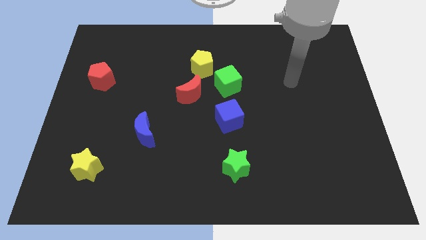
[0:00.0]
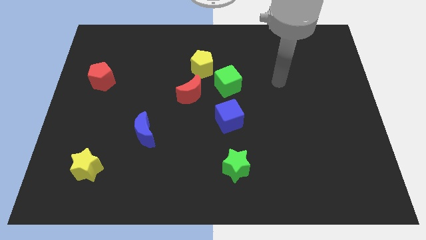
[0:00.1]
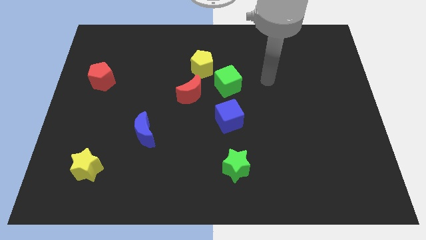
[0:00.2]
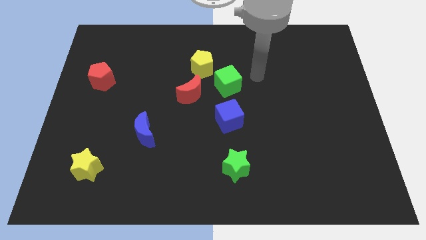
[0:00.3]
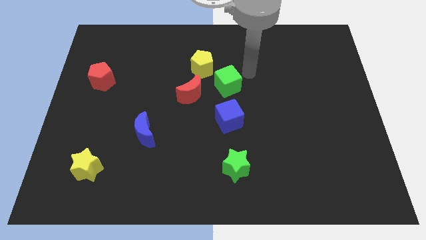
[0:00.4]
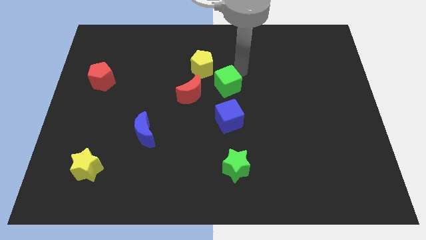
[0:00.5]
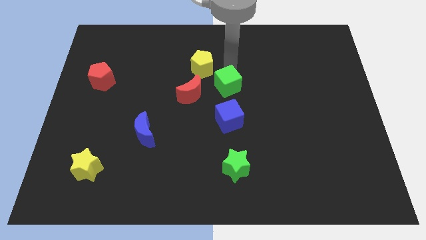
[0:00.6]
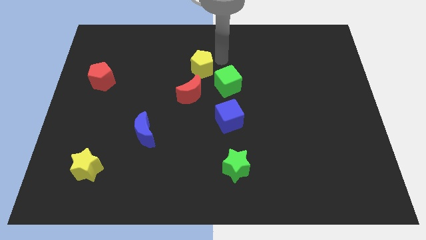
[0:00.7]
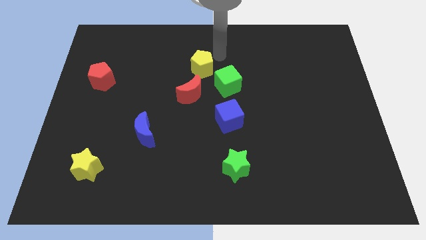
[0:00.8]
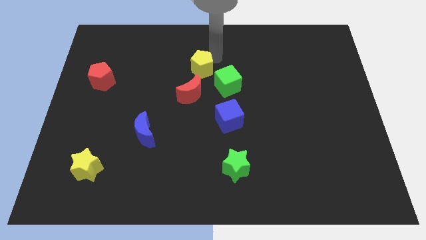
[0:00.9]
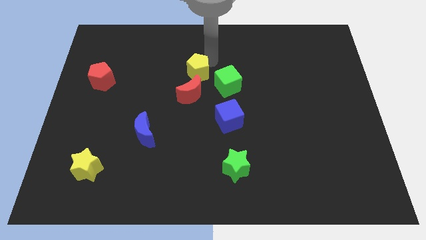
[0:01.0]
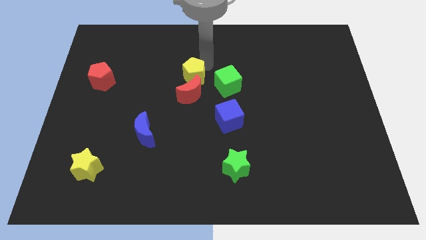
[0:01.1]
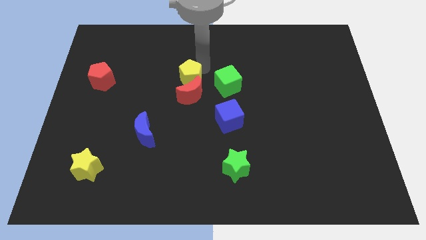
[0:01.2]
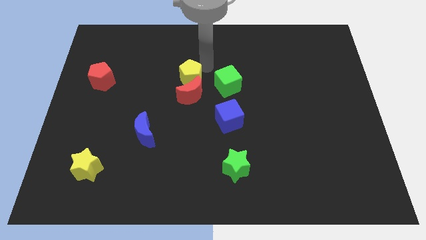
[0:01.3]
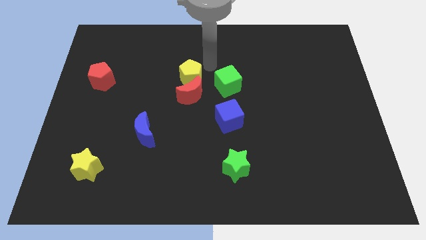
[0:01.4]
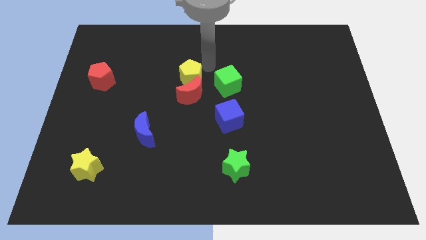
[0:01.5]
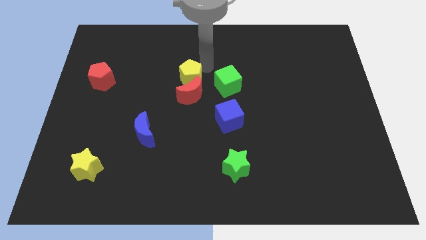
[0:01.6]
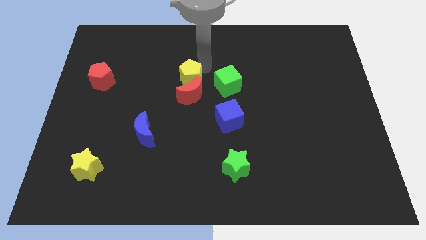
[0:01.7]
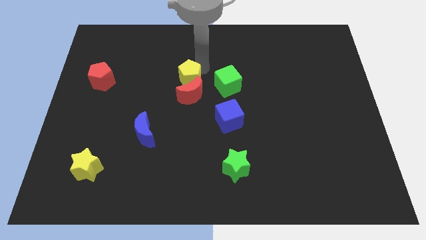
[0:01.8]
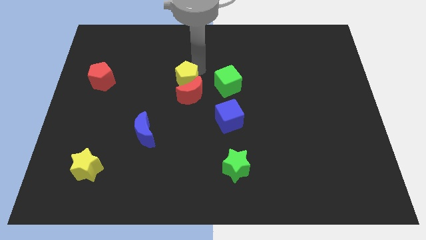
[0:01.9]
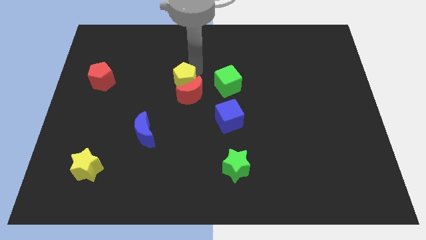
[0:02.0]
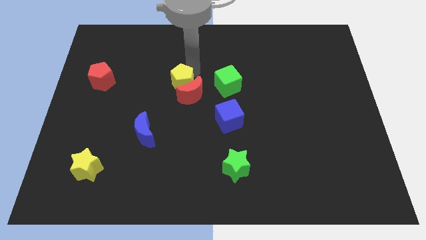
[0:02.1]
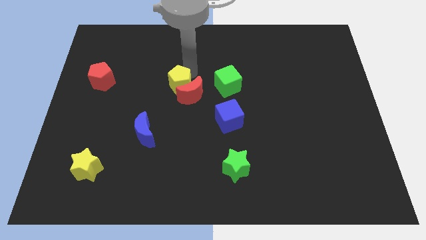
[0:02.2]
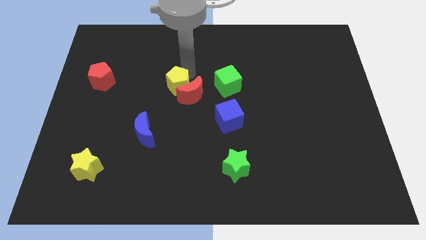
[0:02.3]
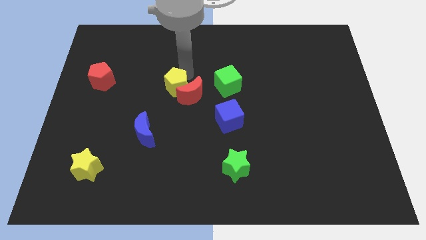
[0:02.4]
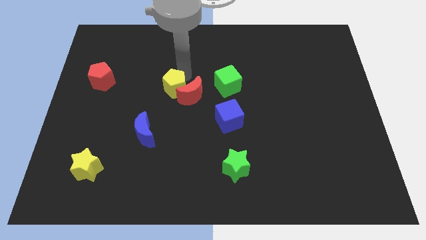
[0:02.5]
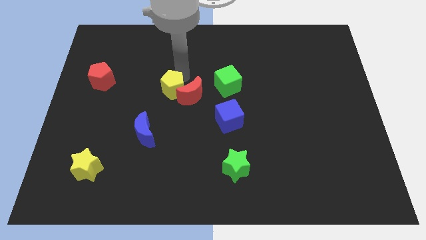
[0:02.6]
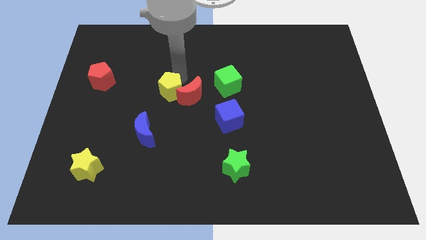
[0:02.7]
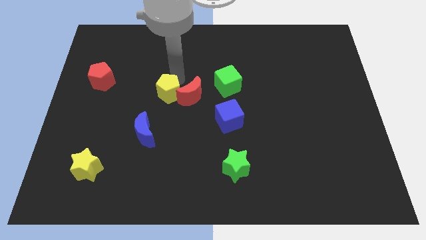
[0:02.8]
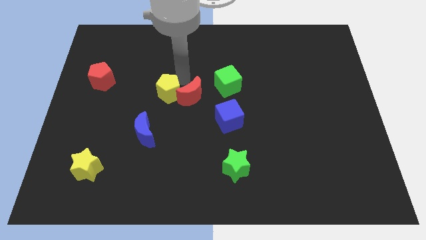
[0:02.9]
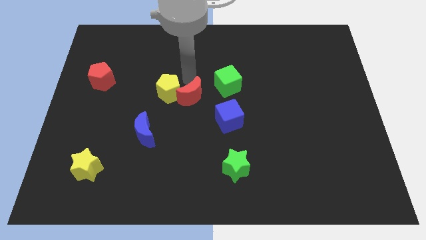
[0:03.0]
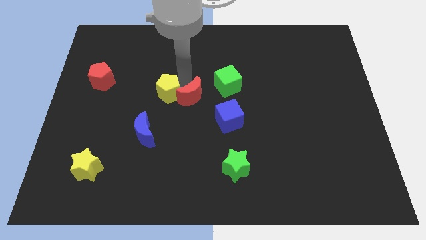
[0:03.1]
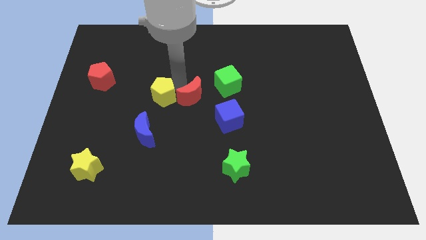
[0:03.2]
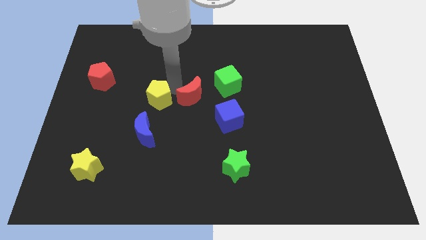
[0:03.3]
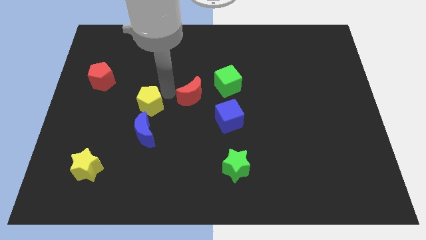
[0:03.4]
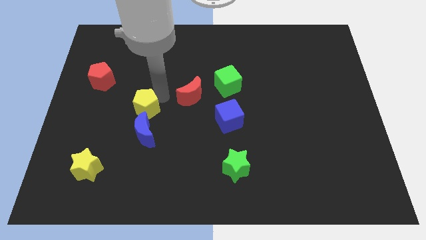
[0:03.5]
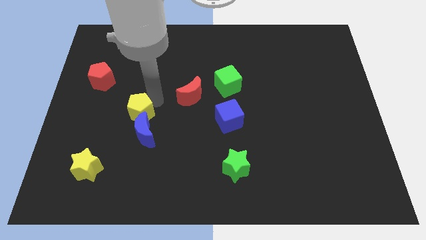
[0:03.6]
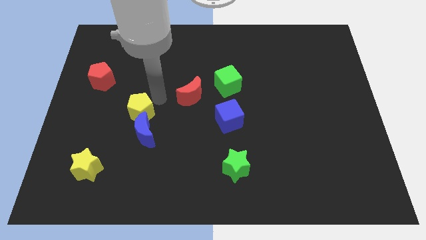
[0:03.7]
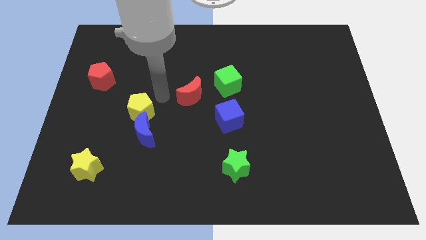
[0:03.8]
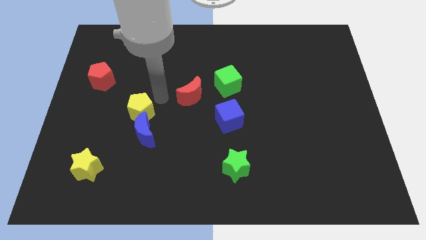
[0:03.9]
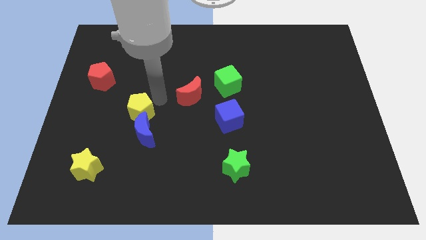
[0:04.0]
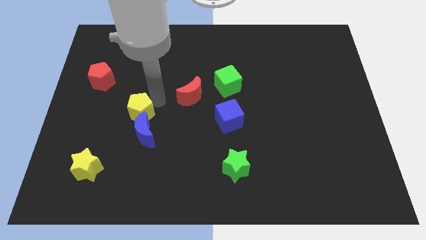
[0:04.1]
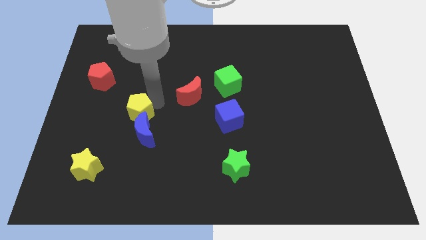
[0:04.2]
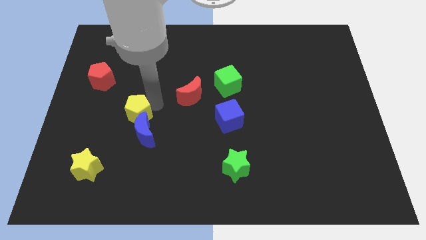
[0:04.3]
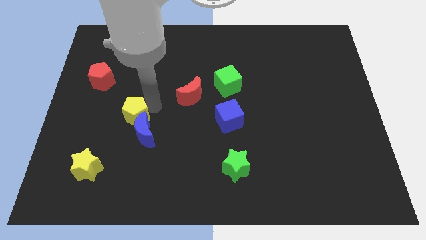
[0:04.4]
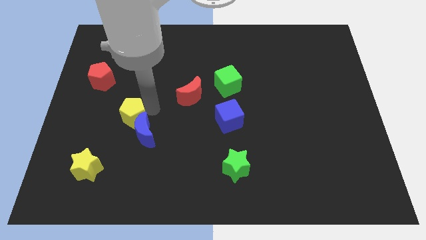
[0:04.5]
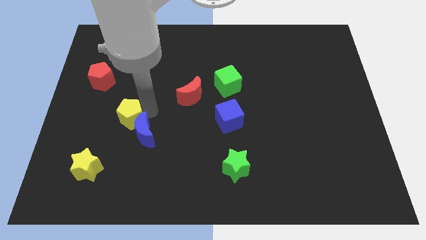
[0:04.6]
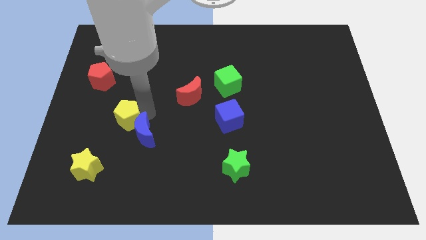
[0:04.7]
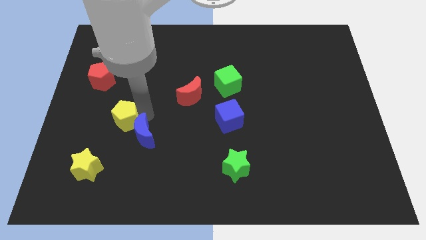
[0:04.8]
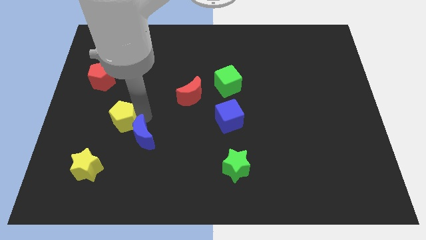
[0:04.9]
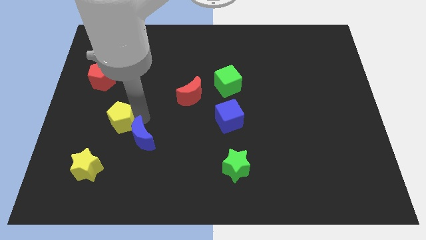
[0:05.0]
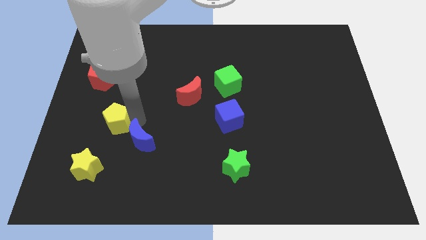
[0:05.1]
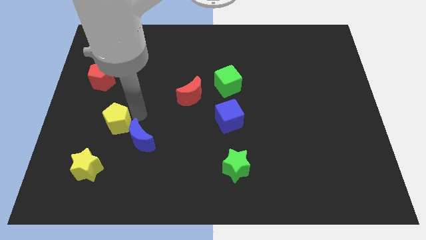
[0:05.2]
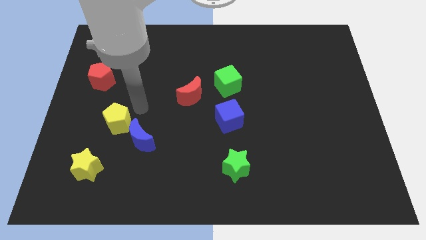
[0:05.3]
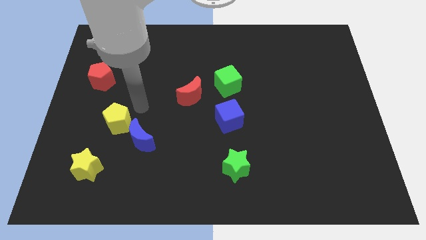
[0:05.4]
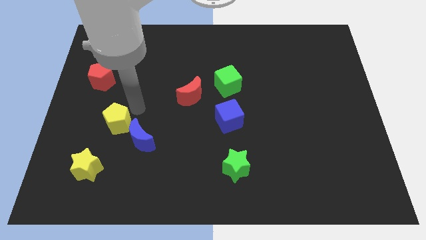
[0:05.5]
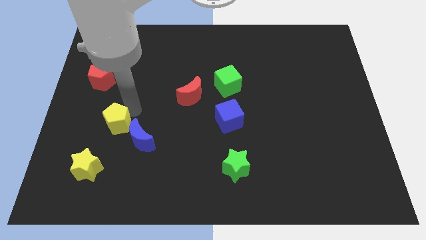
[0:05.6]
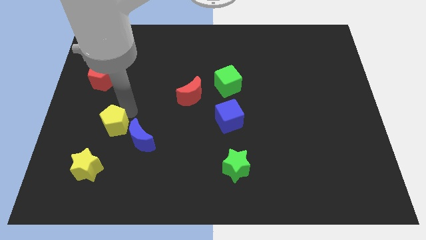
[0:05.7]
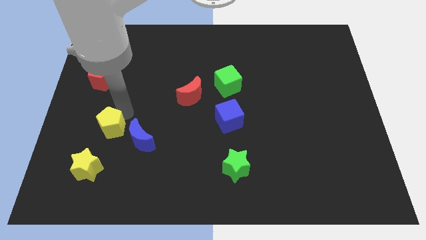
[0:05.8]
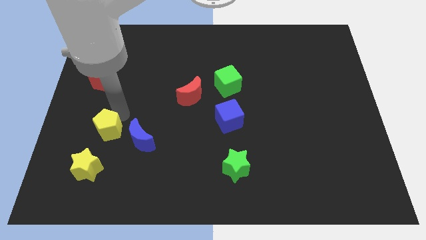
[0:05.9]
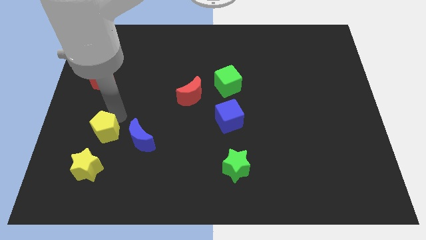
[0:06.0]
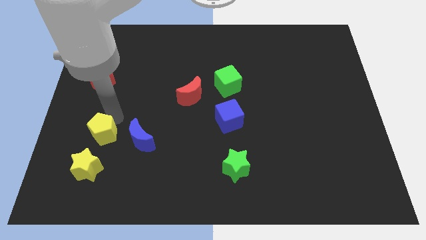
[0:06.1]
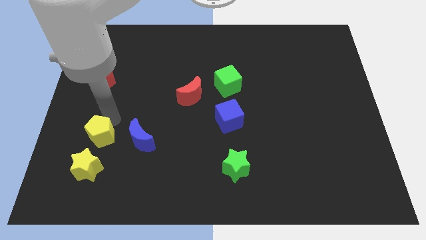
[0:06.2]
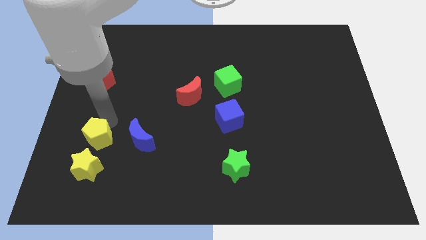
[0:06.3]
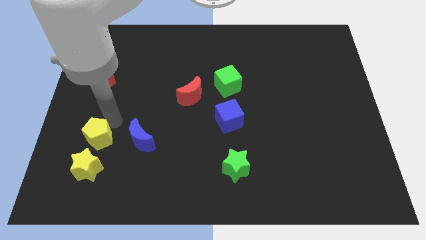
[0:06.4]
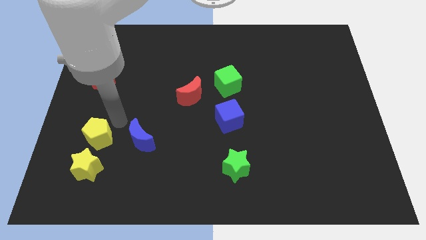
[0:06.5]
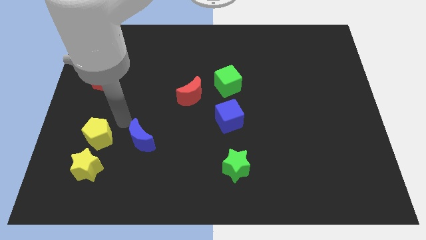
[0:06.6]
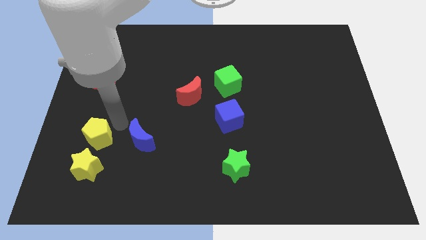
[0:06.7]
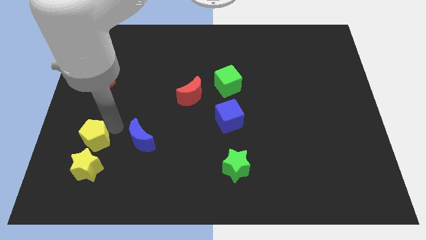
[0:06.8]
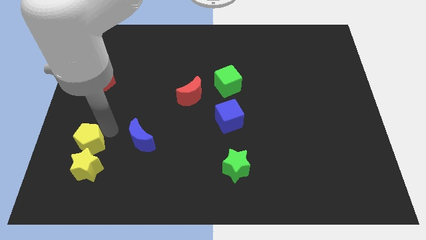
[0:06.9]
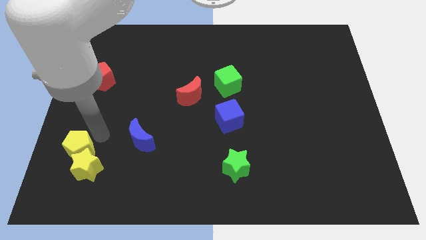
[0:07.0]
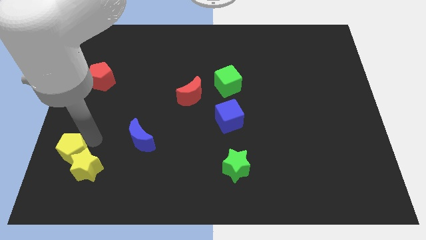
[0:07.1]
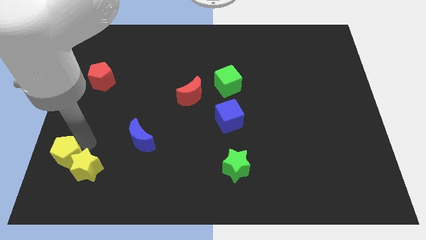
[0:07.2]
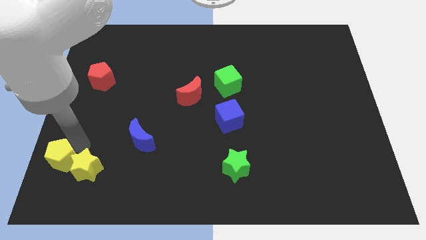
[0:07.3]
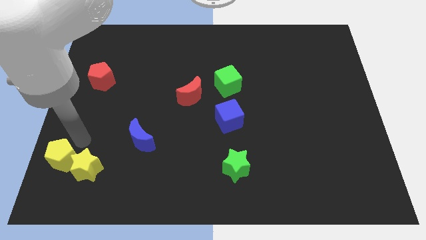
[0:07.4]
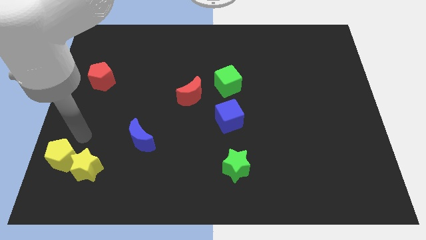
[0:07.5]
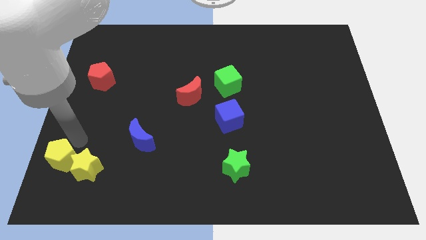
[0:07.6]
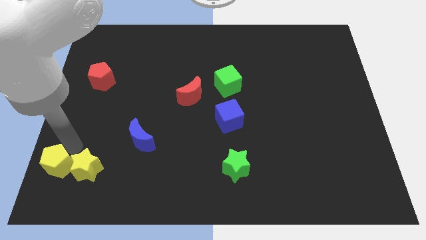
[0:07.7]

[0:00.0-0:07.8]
push the yellow pentagon to the lower left corner
